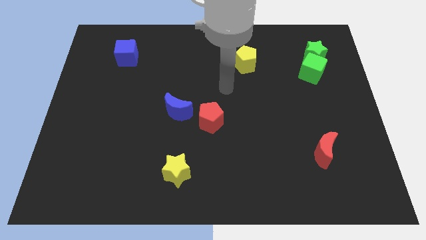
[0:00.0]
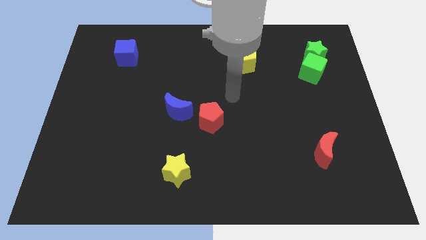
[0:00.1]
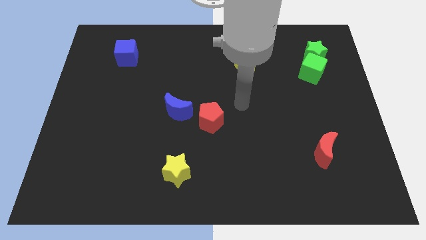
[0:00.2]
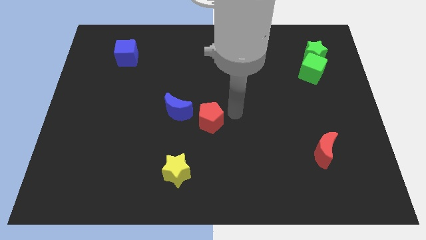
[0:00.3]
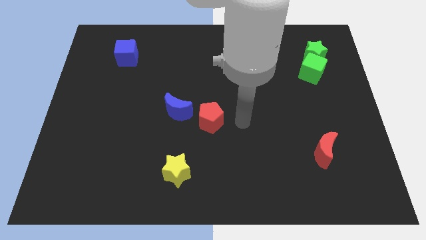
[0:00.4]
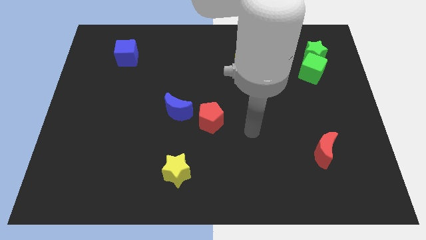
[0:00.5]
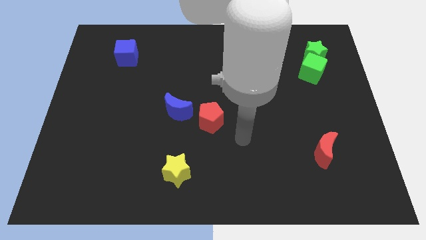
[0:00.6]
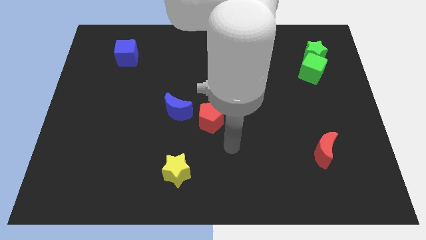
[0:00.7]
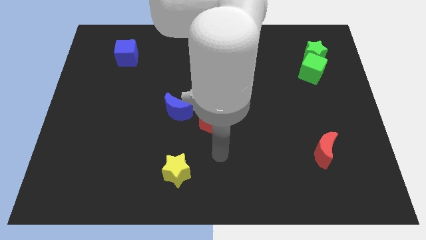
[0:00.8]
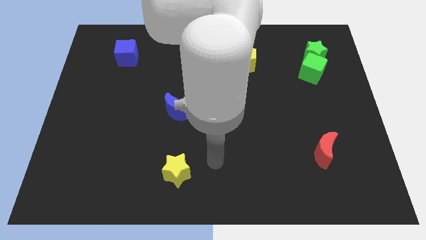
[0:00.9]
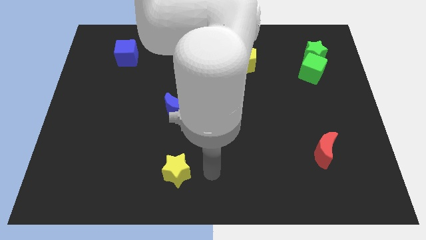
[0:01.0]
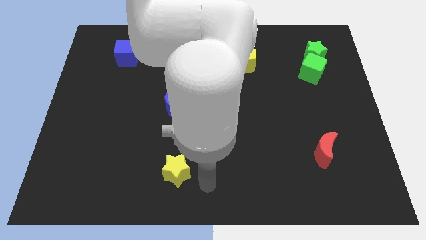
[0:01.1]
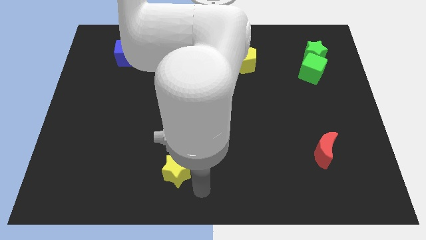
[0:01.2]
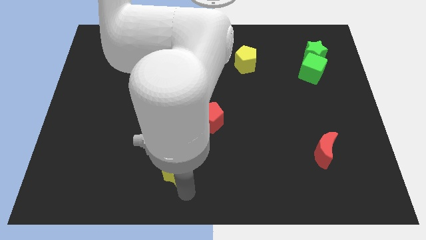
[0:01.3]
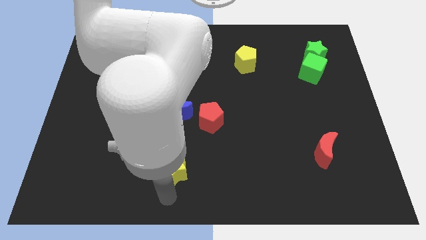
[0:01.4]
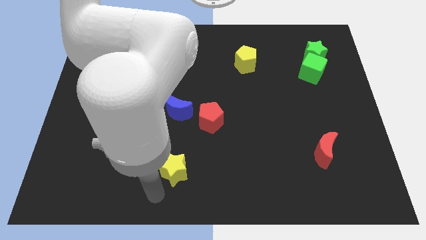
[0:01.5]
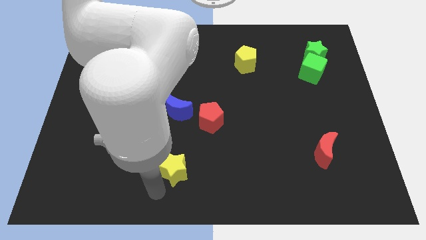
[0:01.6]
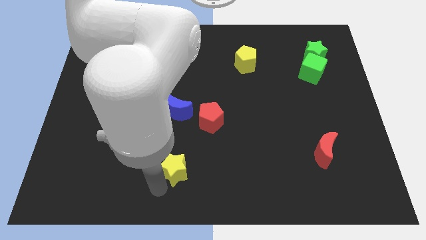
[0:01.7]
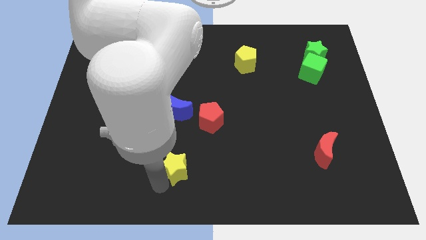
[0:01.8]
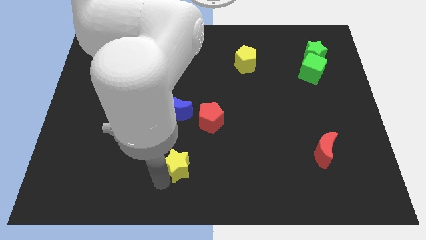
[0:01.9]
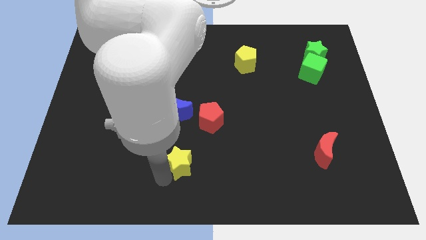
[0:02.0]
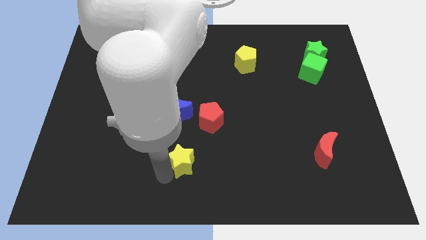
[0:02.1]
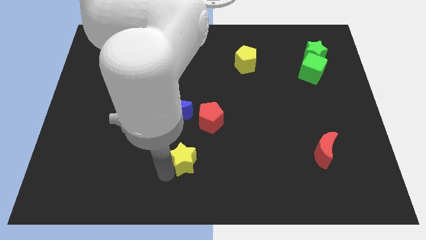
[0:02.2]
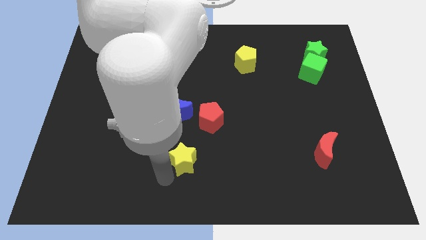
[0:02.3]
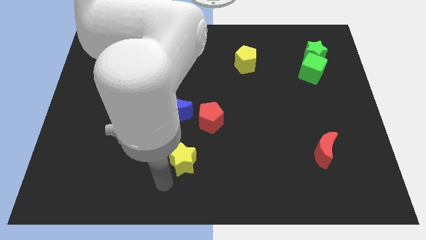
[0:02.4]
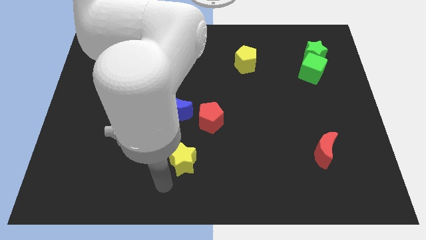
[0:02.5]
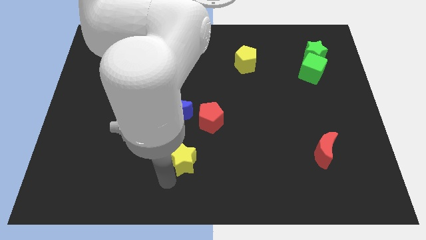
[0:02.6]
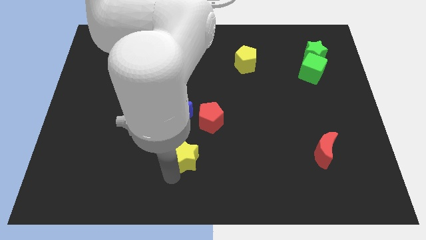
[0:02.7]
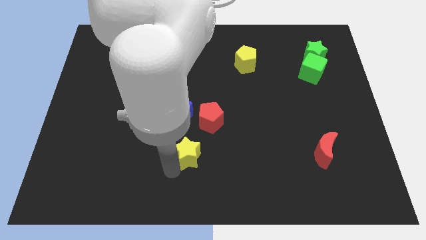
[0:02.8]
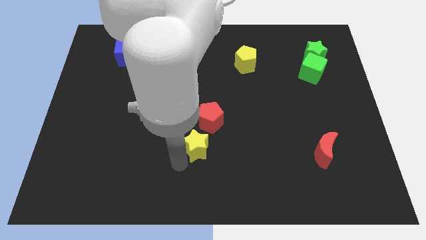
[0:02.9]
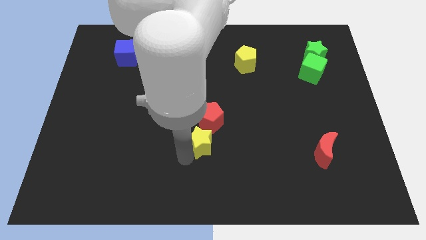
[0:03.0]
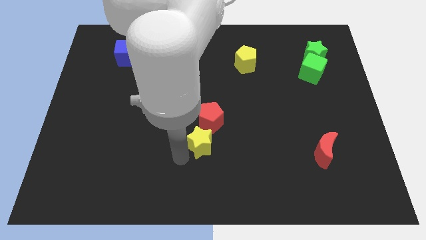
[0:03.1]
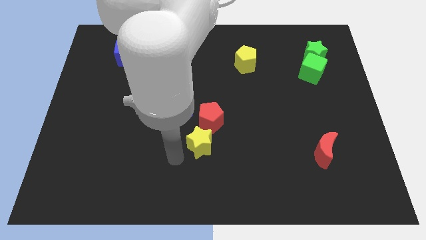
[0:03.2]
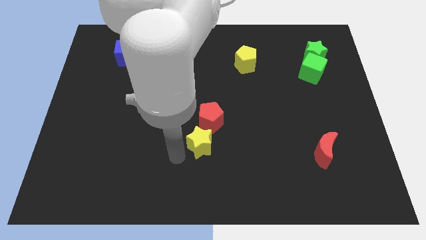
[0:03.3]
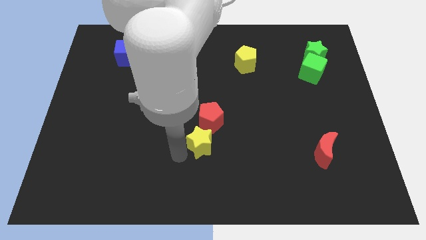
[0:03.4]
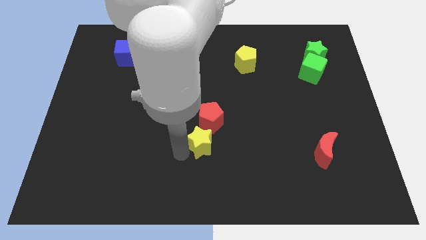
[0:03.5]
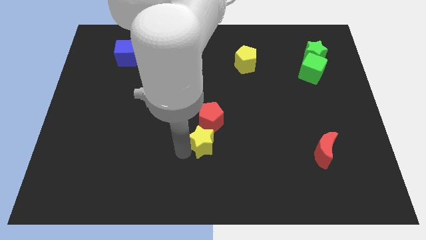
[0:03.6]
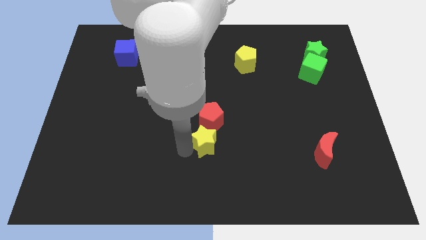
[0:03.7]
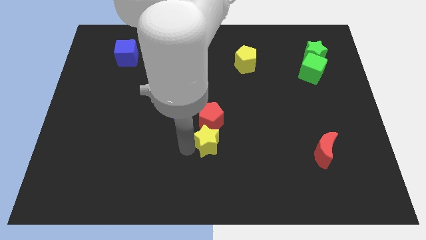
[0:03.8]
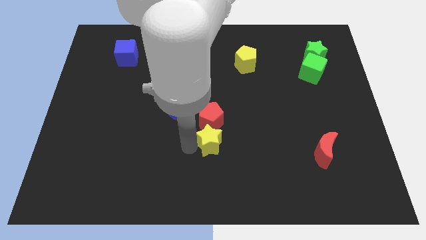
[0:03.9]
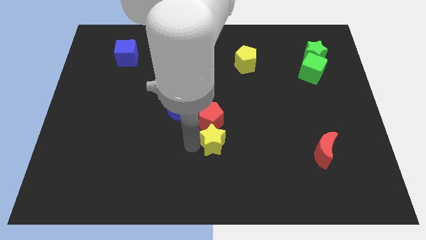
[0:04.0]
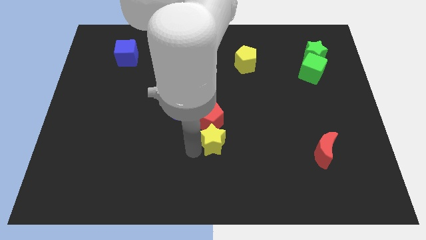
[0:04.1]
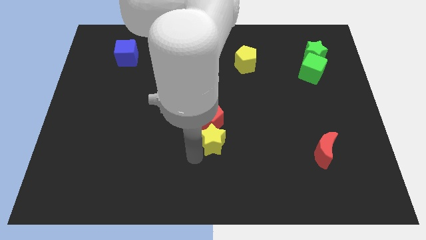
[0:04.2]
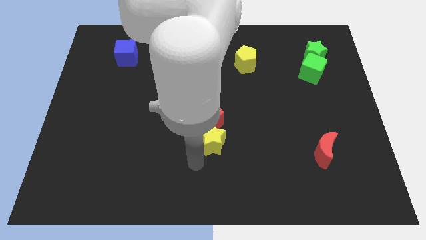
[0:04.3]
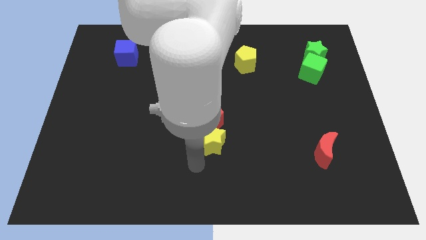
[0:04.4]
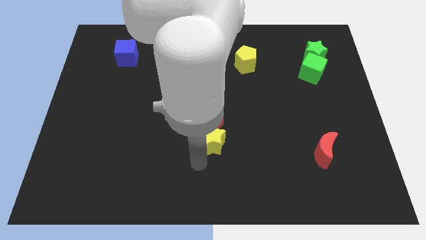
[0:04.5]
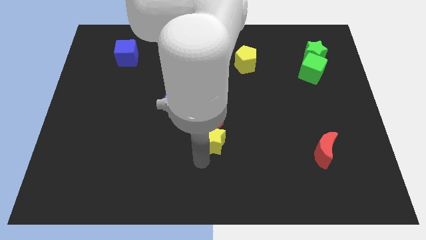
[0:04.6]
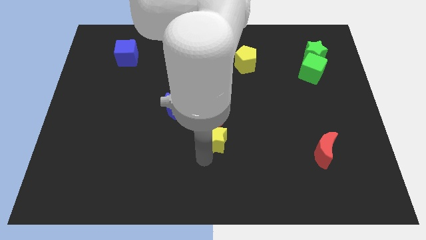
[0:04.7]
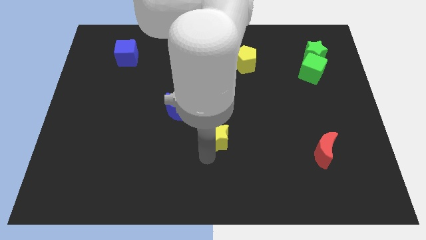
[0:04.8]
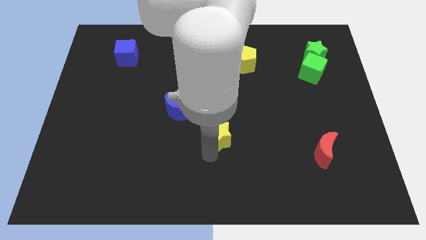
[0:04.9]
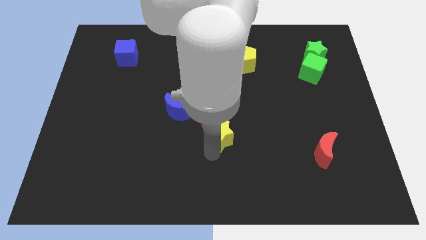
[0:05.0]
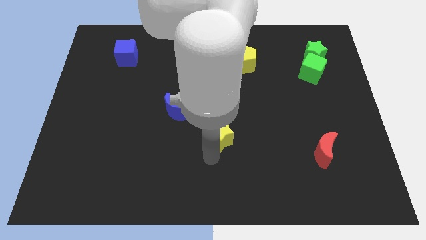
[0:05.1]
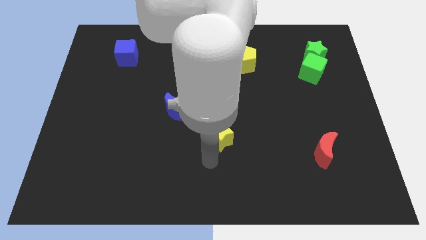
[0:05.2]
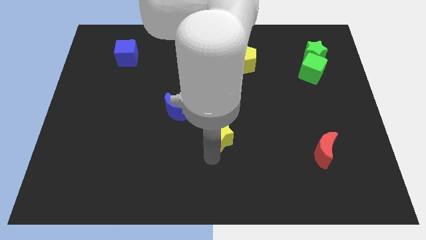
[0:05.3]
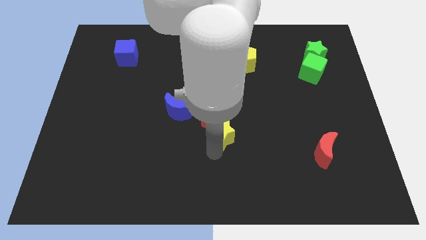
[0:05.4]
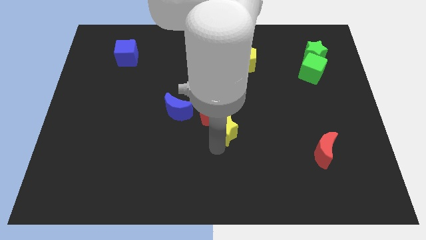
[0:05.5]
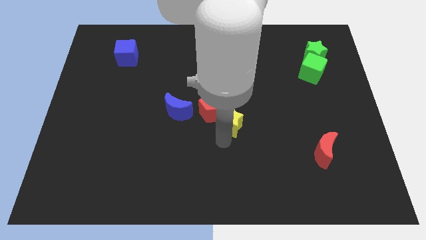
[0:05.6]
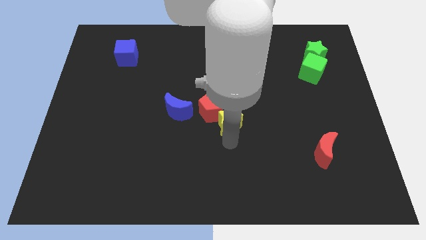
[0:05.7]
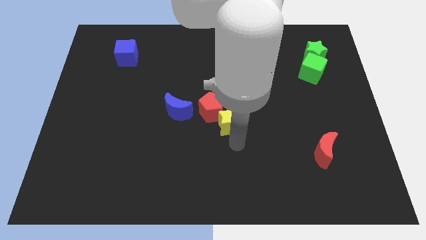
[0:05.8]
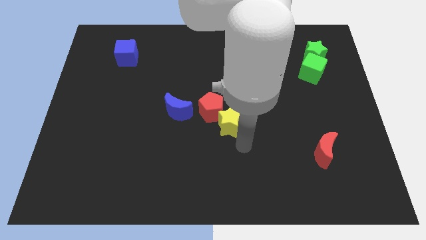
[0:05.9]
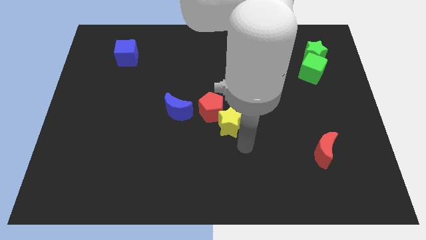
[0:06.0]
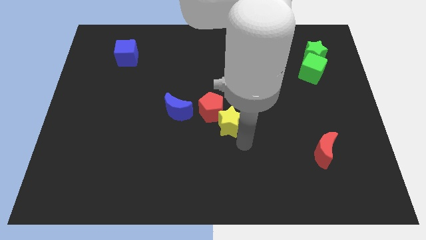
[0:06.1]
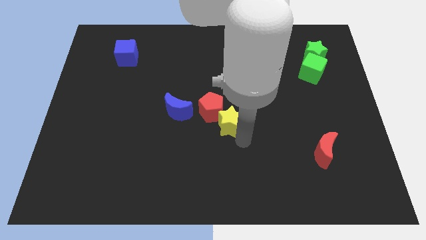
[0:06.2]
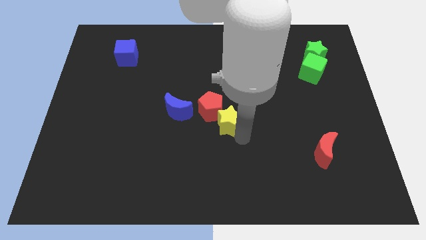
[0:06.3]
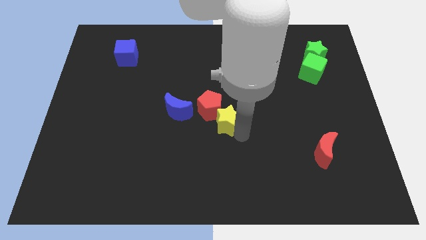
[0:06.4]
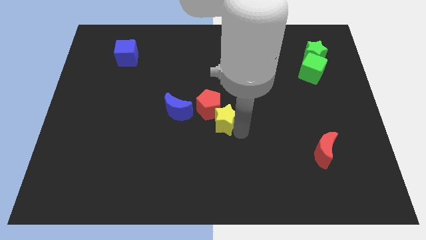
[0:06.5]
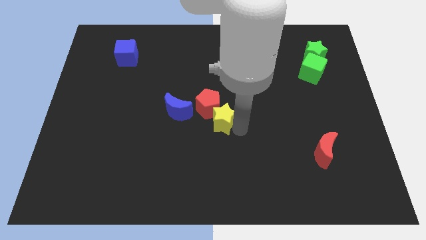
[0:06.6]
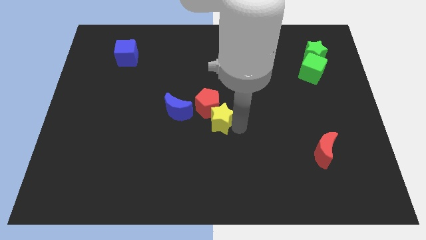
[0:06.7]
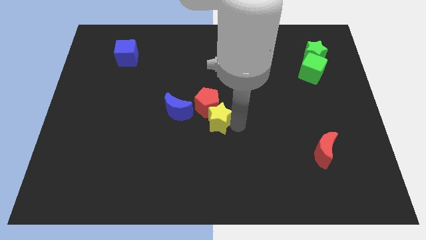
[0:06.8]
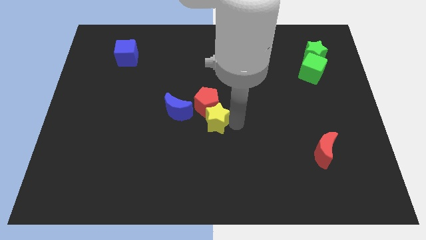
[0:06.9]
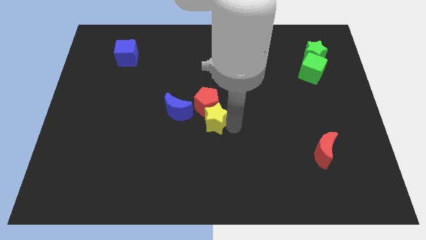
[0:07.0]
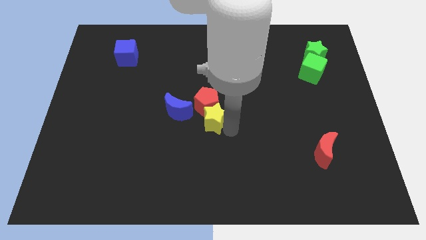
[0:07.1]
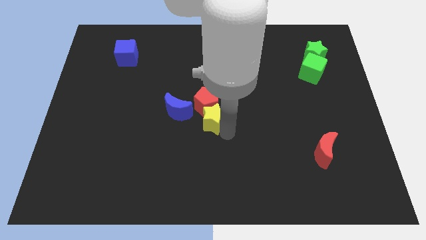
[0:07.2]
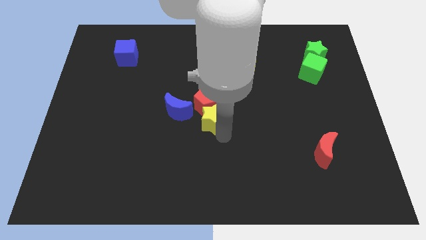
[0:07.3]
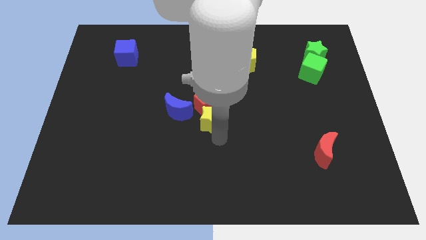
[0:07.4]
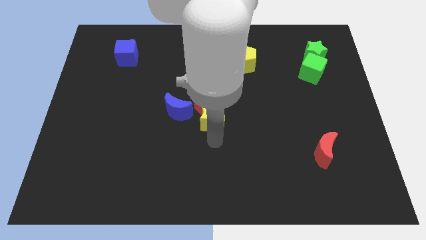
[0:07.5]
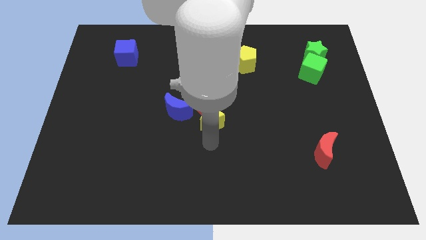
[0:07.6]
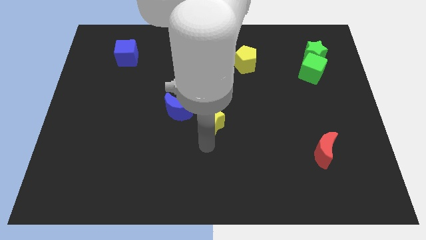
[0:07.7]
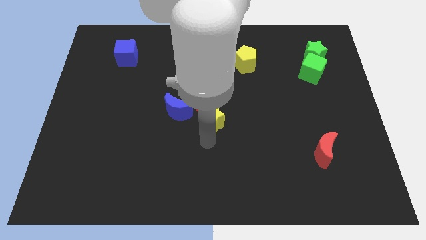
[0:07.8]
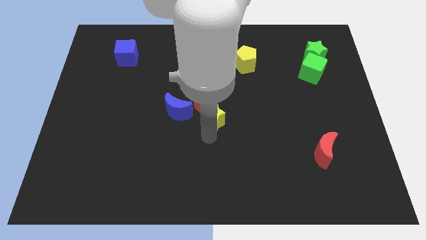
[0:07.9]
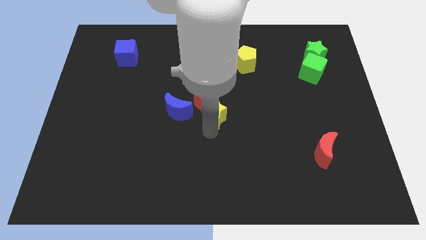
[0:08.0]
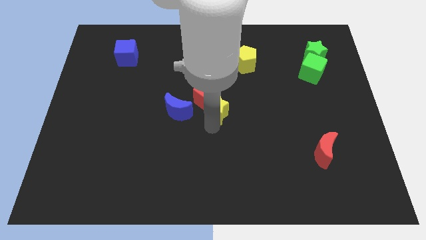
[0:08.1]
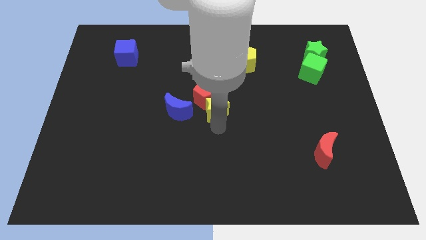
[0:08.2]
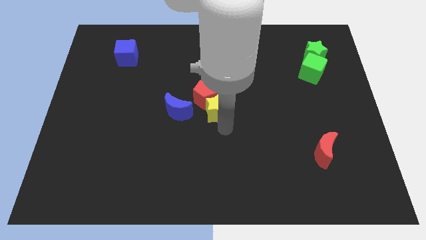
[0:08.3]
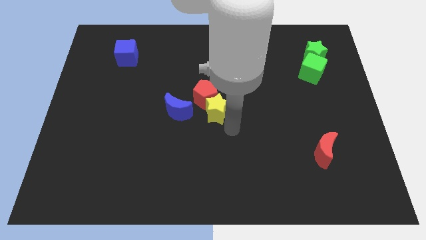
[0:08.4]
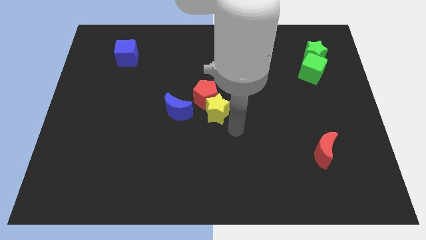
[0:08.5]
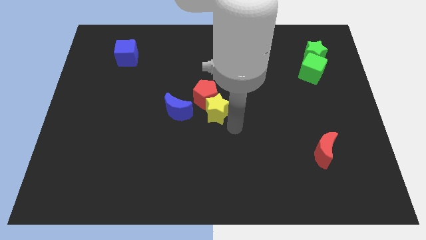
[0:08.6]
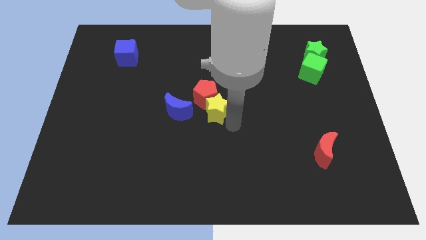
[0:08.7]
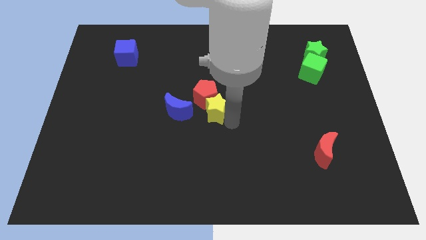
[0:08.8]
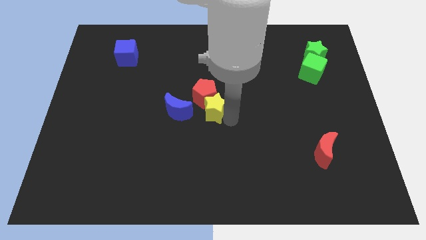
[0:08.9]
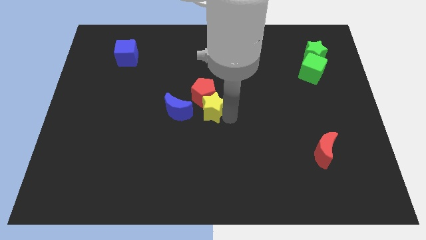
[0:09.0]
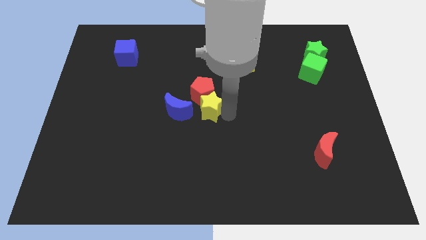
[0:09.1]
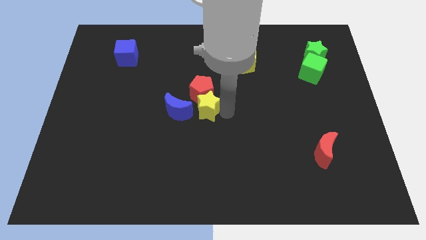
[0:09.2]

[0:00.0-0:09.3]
put the yellow star diagonally up and to the right of the blue moon
